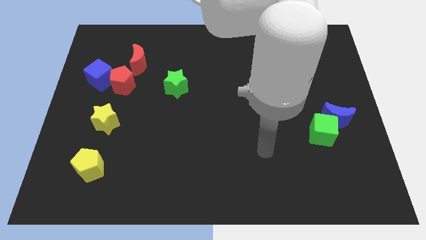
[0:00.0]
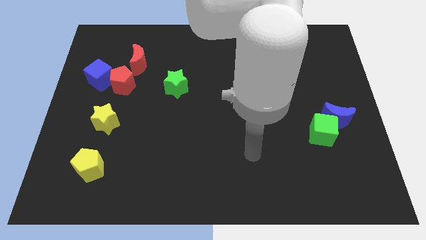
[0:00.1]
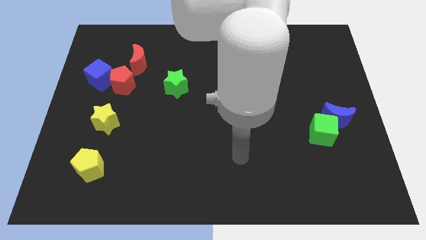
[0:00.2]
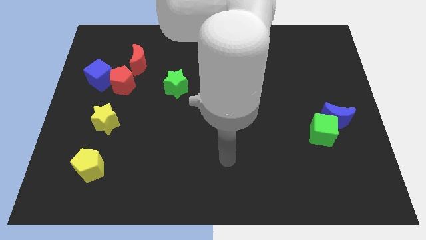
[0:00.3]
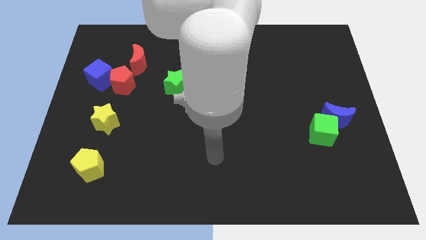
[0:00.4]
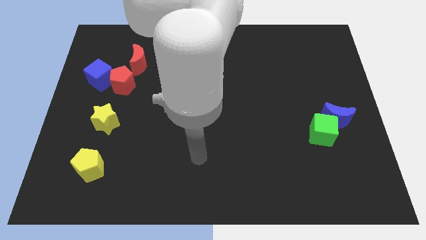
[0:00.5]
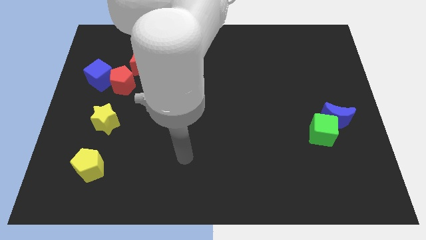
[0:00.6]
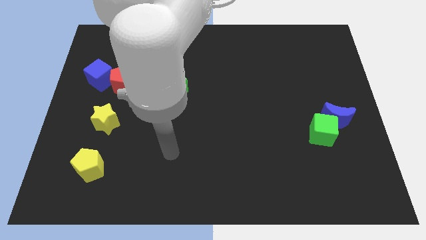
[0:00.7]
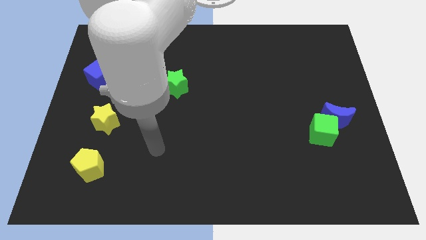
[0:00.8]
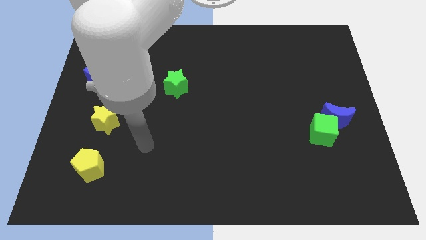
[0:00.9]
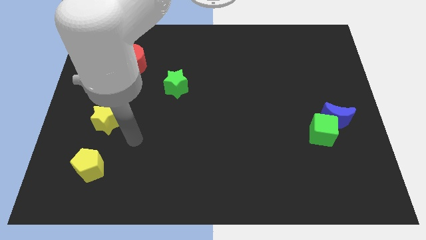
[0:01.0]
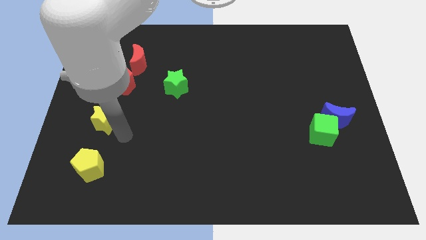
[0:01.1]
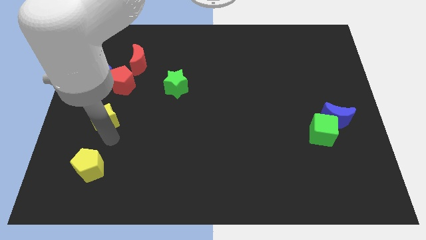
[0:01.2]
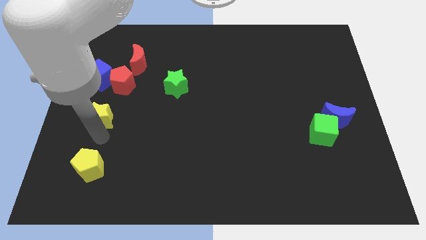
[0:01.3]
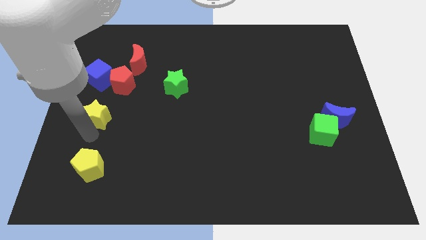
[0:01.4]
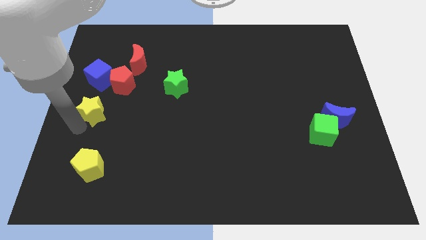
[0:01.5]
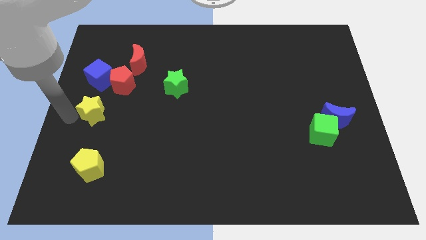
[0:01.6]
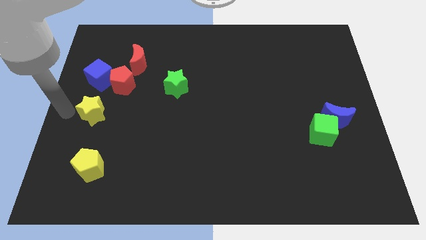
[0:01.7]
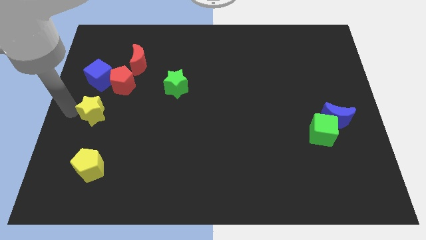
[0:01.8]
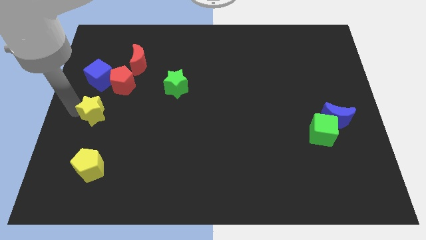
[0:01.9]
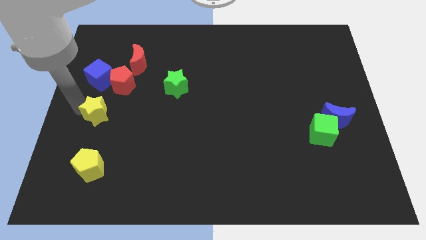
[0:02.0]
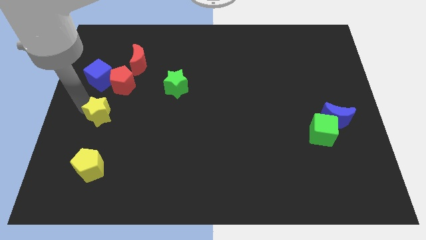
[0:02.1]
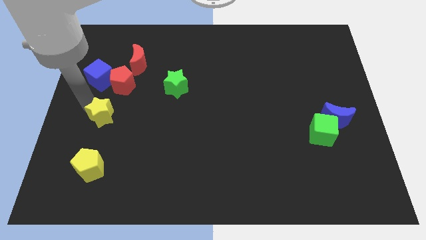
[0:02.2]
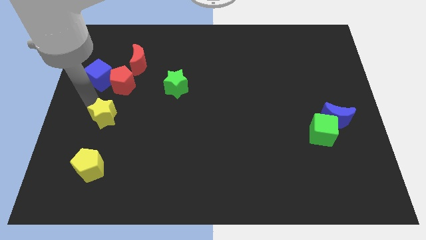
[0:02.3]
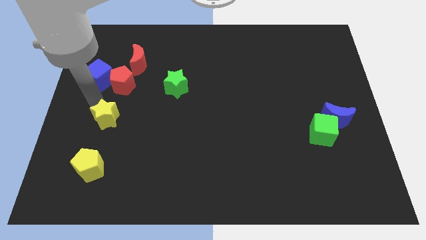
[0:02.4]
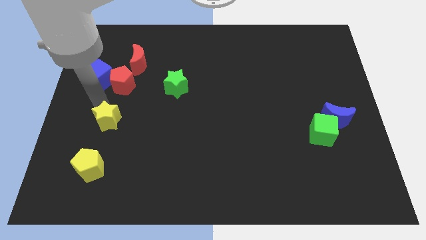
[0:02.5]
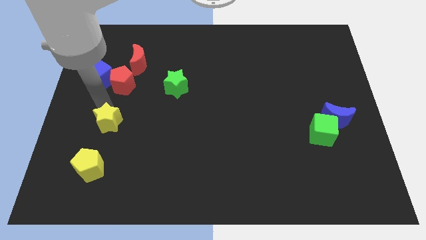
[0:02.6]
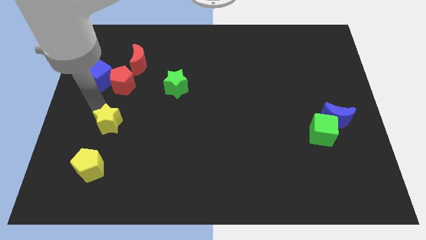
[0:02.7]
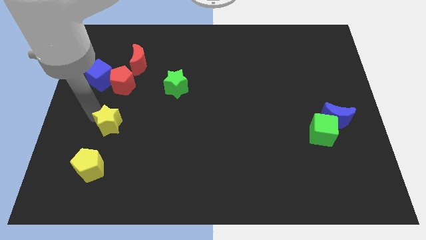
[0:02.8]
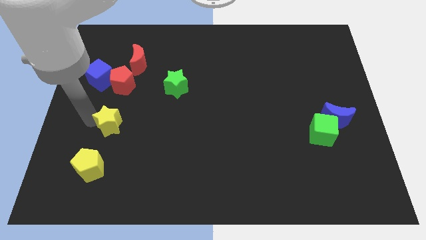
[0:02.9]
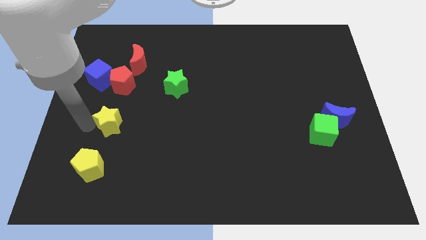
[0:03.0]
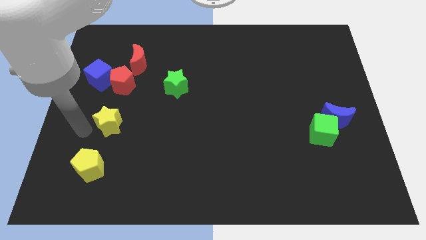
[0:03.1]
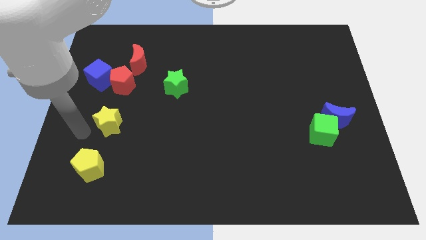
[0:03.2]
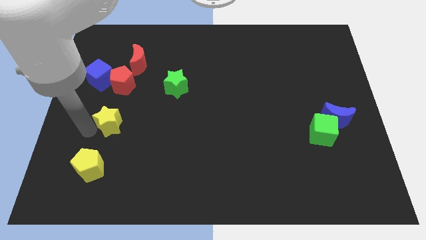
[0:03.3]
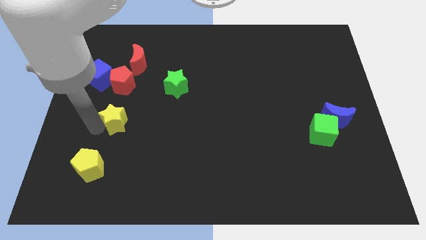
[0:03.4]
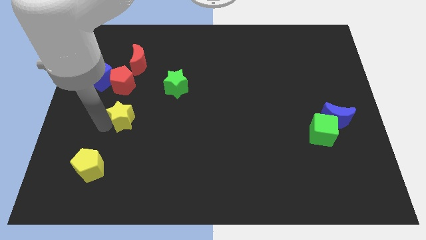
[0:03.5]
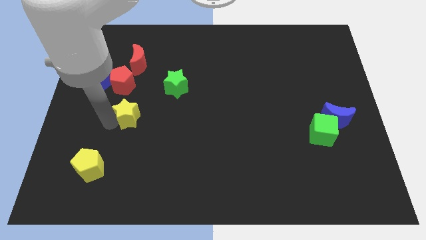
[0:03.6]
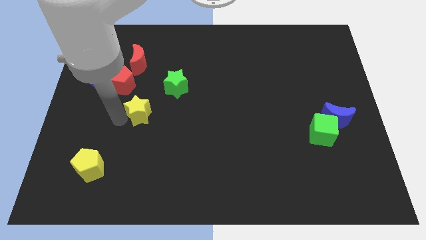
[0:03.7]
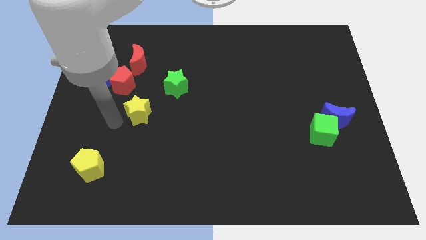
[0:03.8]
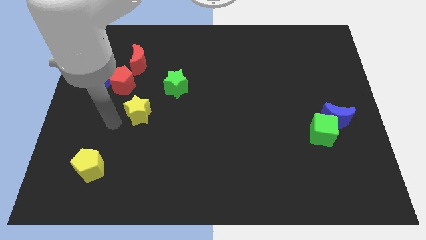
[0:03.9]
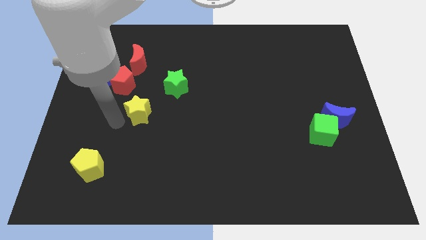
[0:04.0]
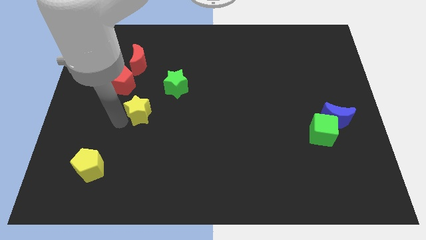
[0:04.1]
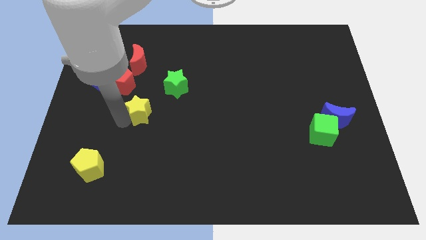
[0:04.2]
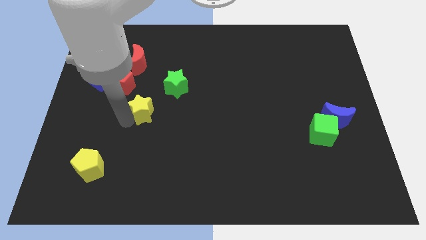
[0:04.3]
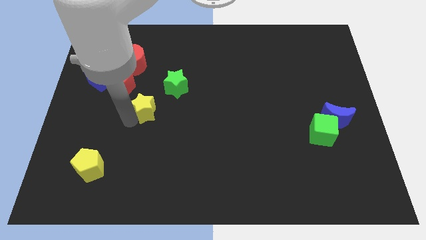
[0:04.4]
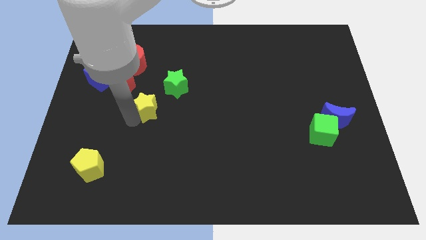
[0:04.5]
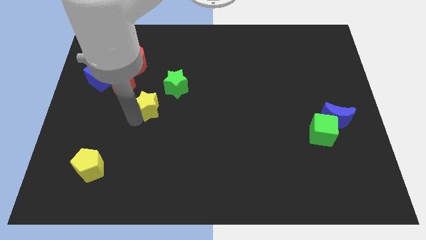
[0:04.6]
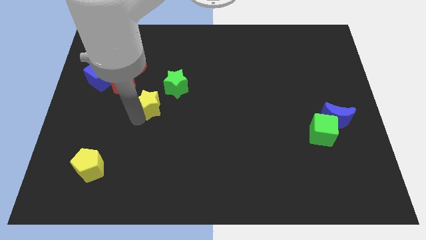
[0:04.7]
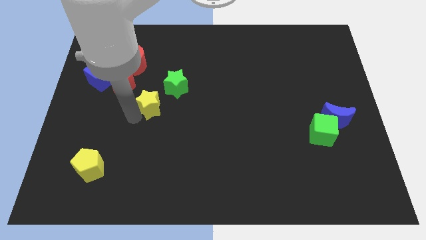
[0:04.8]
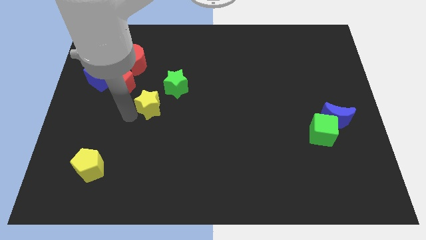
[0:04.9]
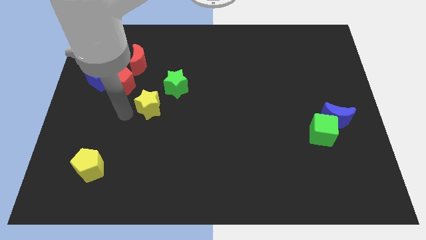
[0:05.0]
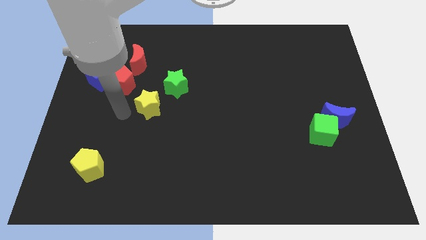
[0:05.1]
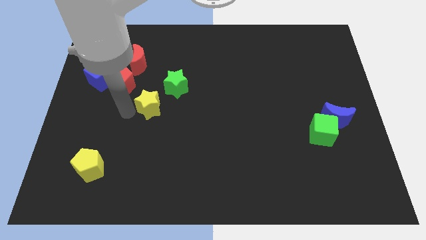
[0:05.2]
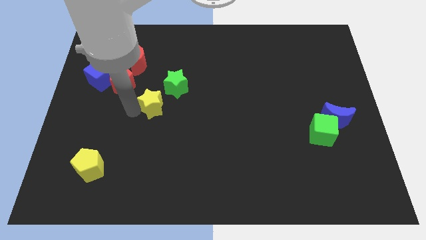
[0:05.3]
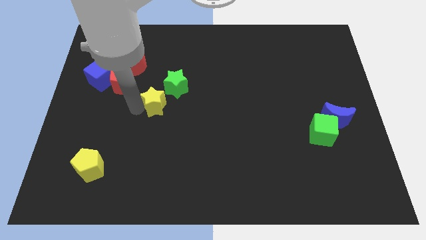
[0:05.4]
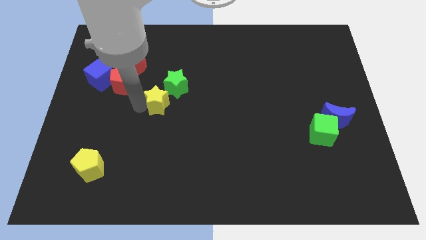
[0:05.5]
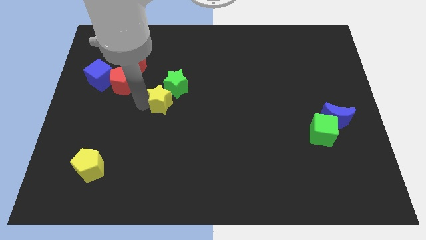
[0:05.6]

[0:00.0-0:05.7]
move the yellow star to the center
